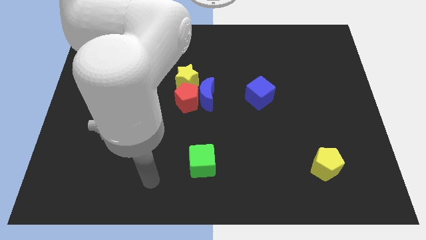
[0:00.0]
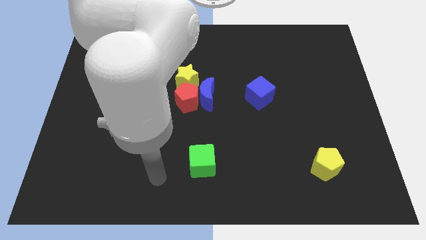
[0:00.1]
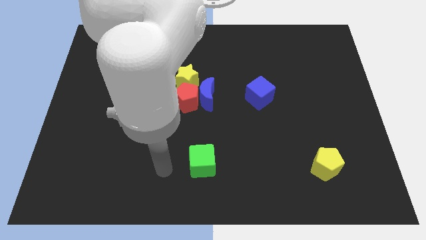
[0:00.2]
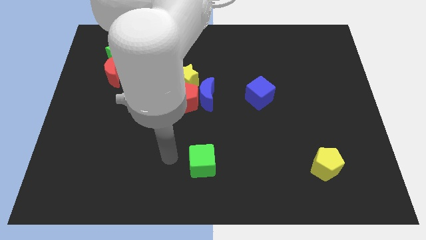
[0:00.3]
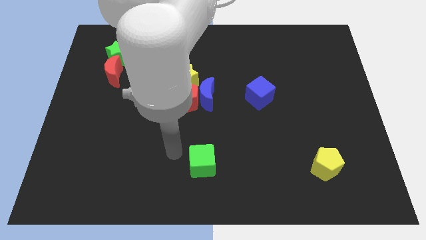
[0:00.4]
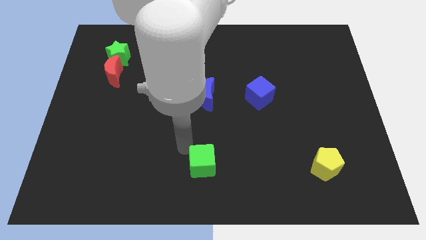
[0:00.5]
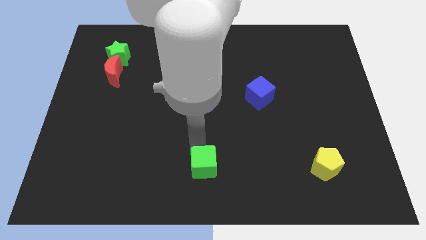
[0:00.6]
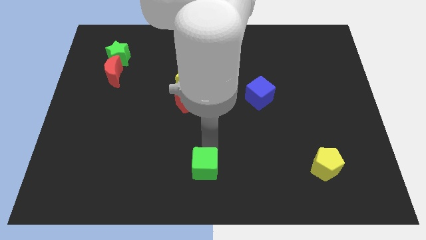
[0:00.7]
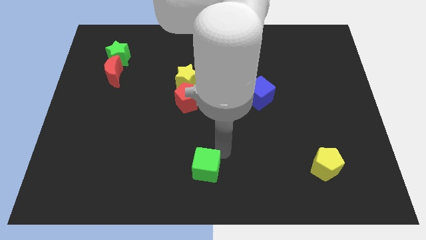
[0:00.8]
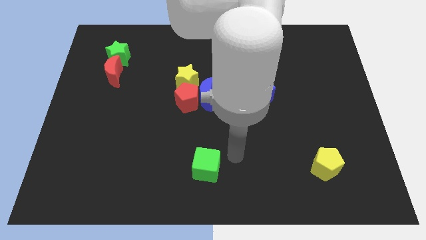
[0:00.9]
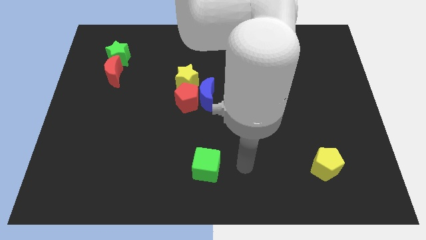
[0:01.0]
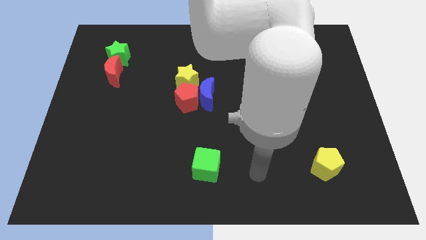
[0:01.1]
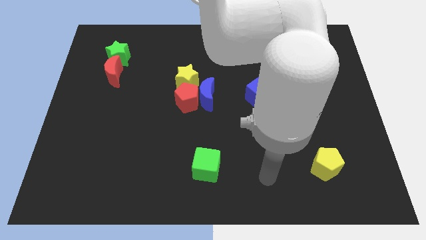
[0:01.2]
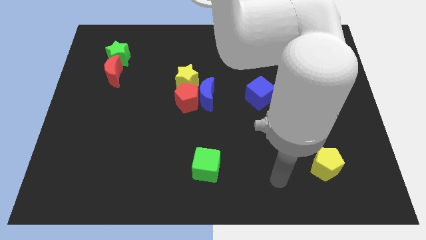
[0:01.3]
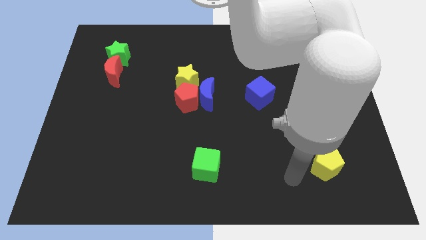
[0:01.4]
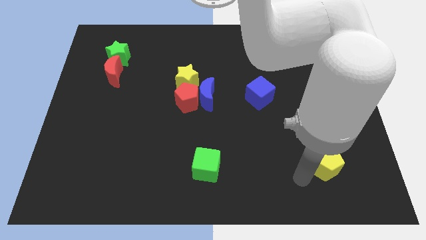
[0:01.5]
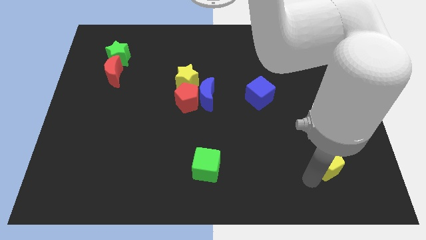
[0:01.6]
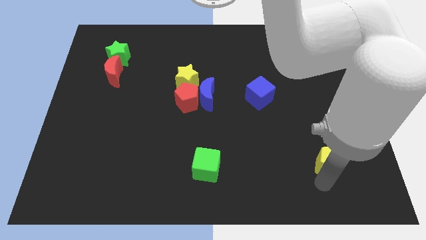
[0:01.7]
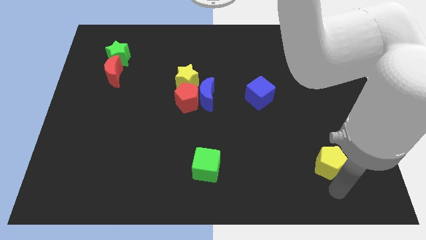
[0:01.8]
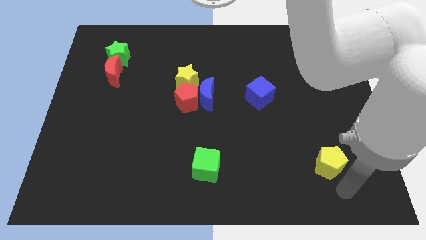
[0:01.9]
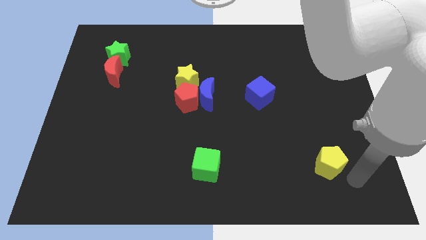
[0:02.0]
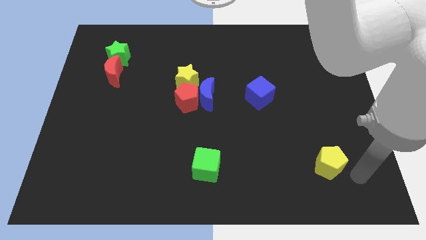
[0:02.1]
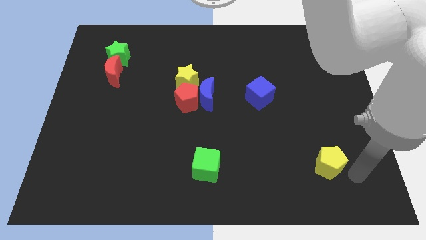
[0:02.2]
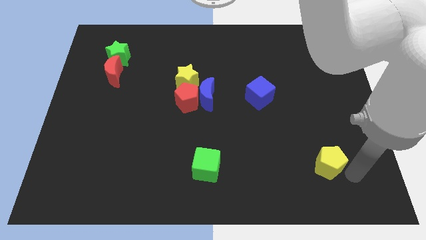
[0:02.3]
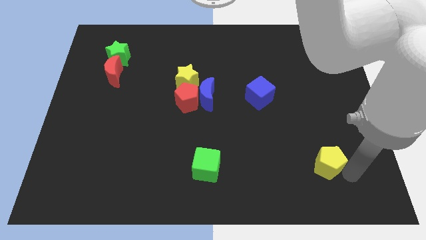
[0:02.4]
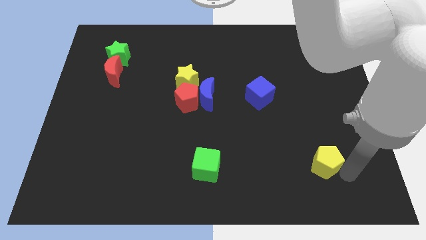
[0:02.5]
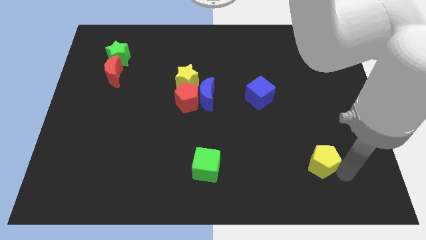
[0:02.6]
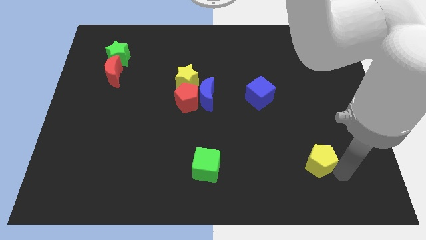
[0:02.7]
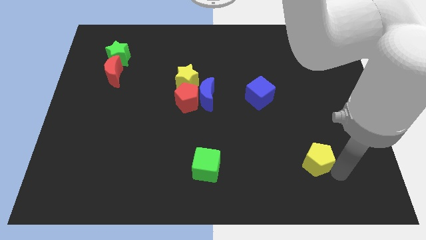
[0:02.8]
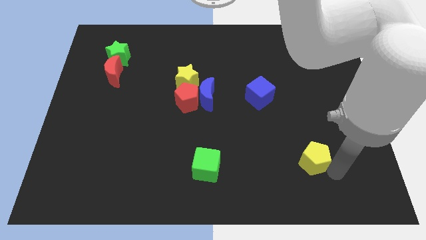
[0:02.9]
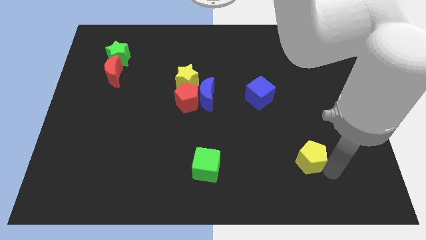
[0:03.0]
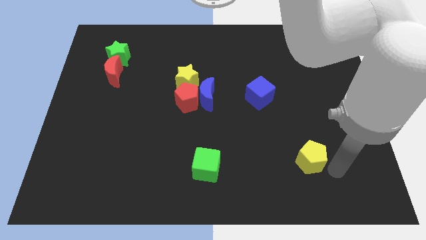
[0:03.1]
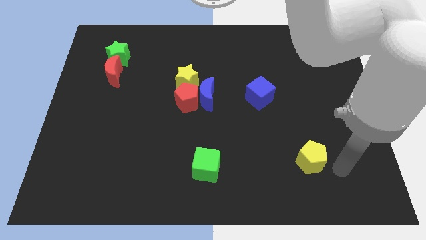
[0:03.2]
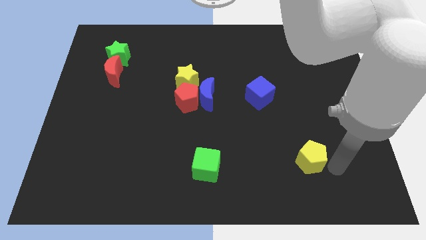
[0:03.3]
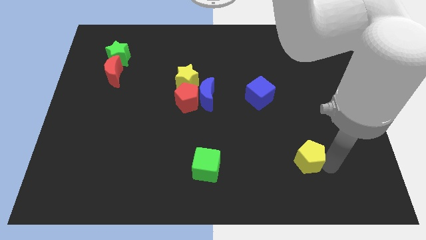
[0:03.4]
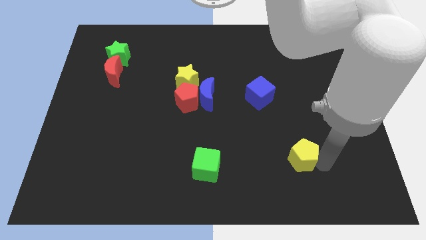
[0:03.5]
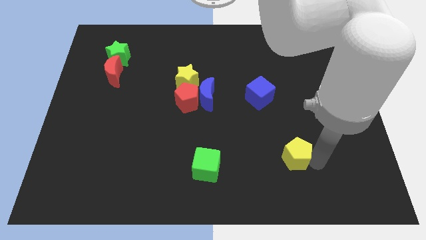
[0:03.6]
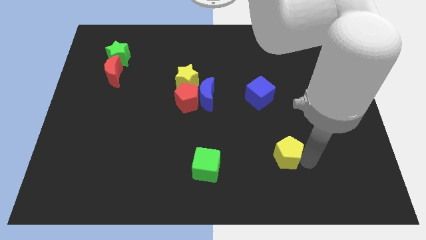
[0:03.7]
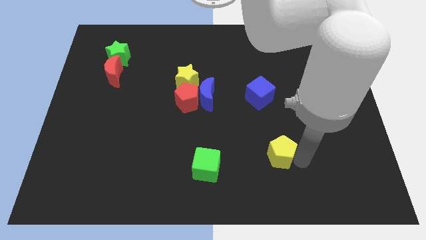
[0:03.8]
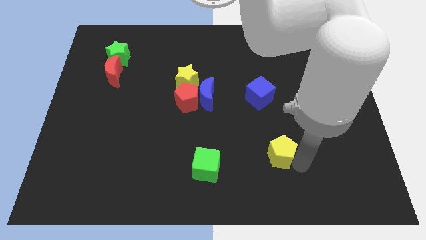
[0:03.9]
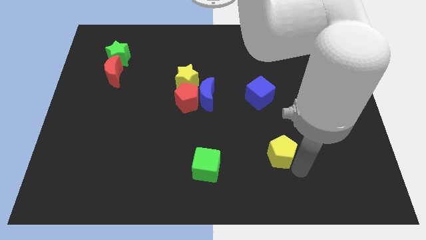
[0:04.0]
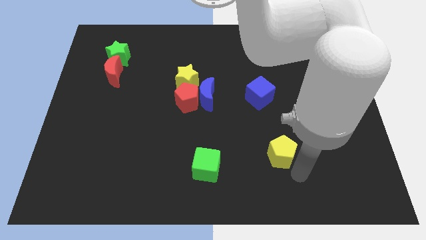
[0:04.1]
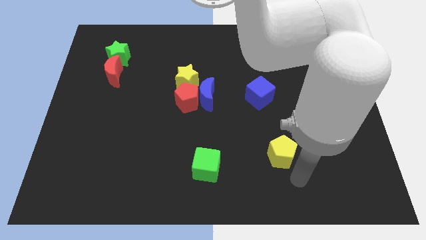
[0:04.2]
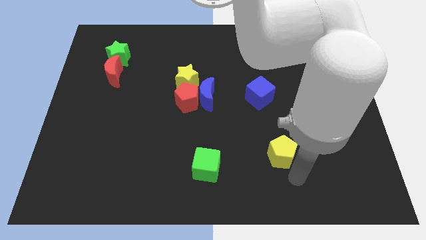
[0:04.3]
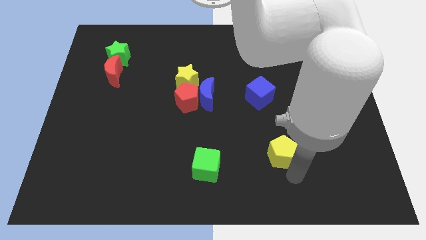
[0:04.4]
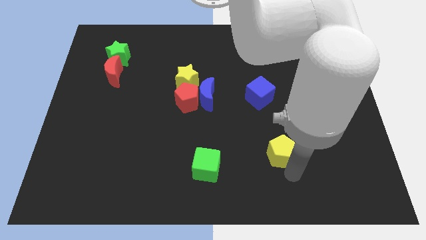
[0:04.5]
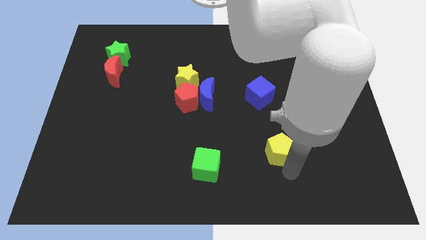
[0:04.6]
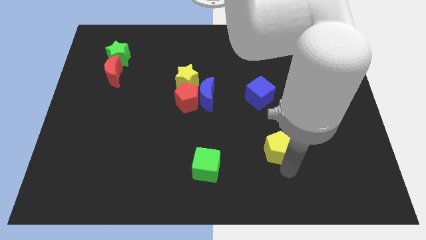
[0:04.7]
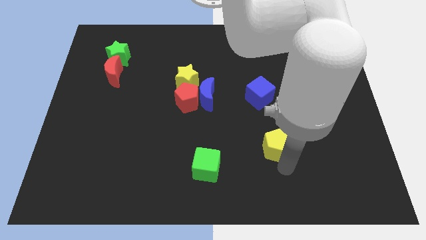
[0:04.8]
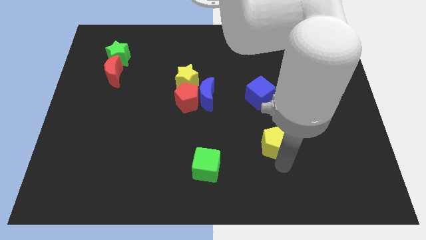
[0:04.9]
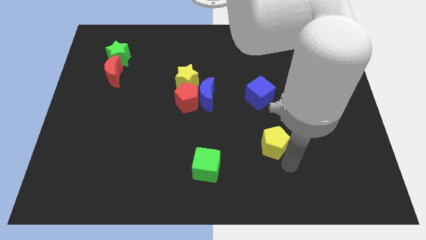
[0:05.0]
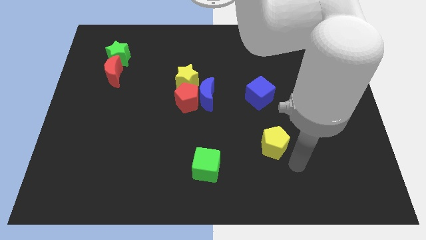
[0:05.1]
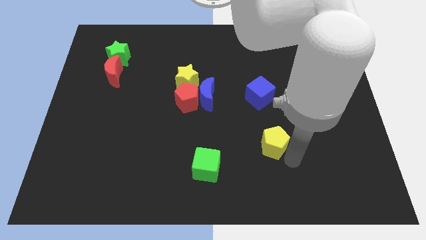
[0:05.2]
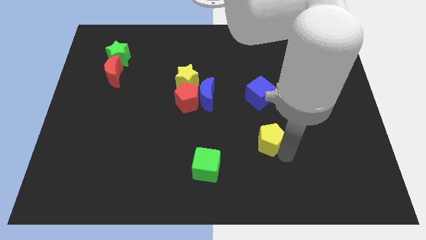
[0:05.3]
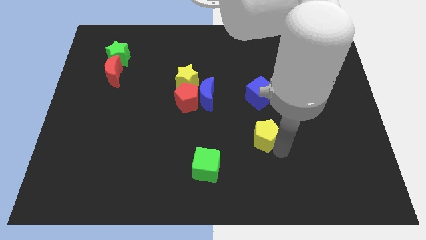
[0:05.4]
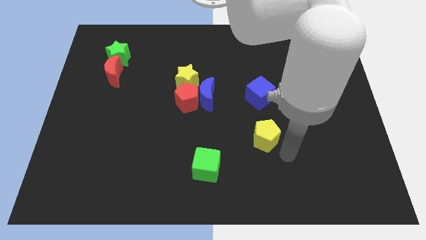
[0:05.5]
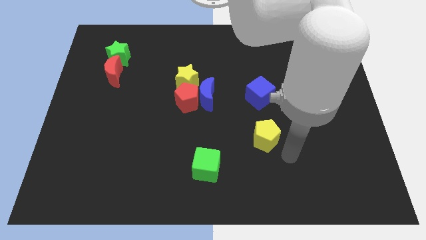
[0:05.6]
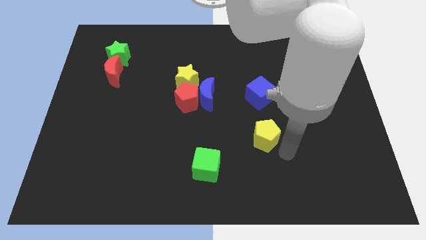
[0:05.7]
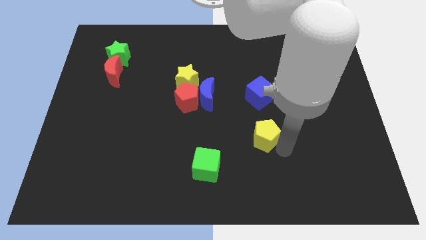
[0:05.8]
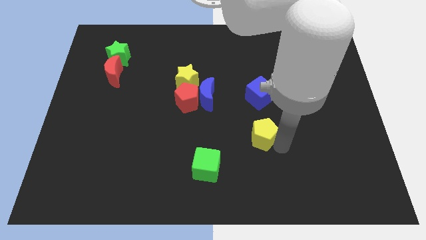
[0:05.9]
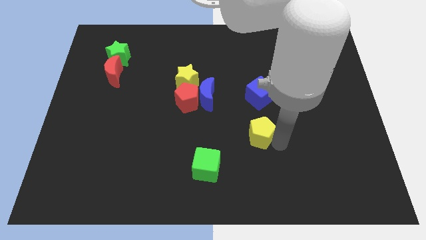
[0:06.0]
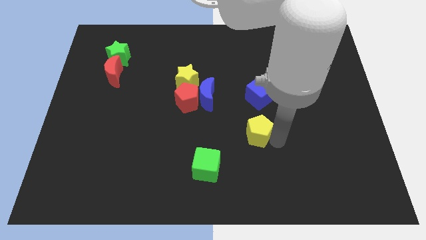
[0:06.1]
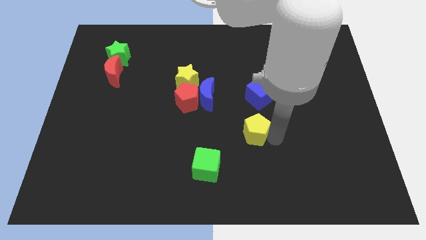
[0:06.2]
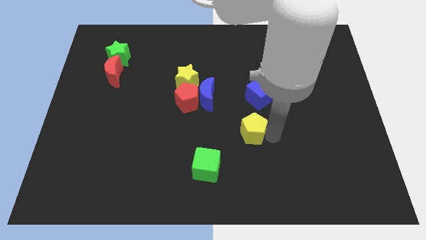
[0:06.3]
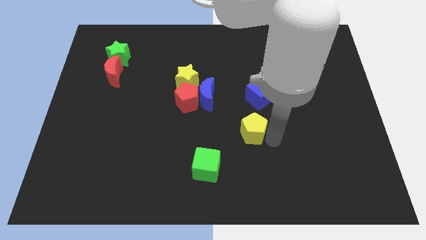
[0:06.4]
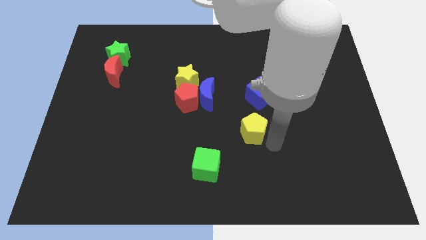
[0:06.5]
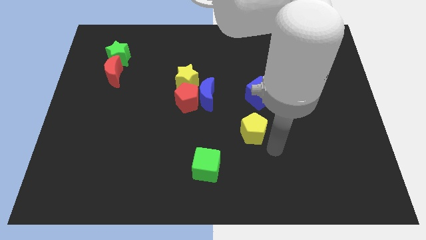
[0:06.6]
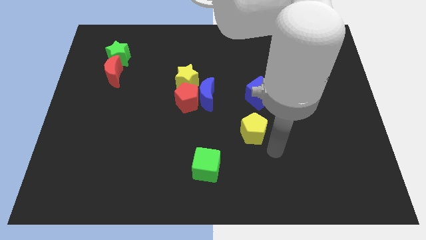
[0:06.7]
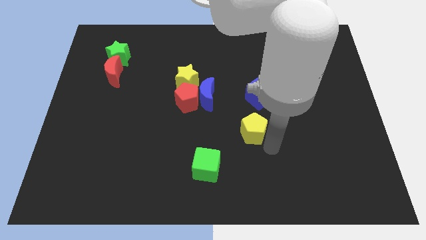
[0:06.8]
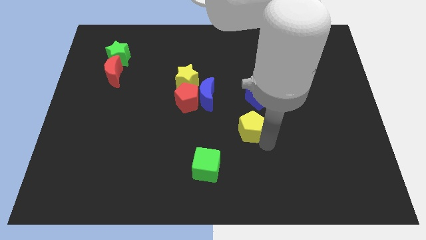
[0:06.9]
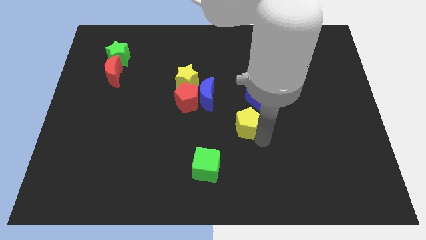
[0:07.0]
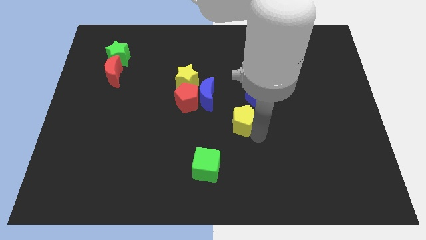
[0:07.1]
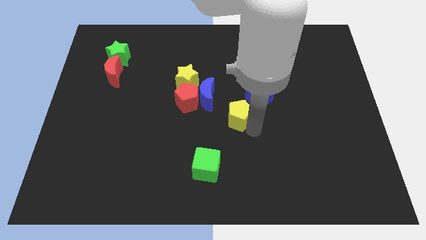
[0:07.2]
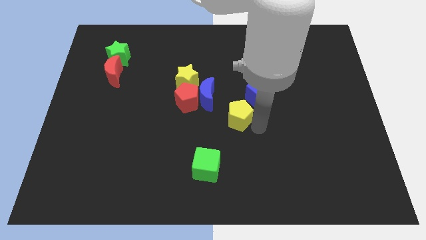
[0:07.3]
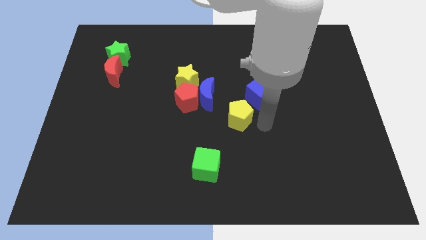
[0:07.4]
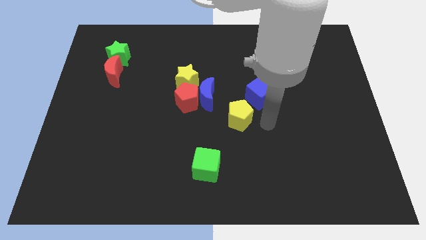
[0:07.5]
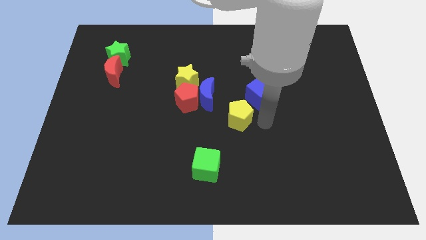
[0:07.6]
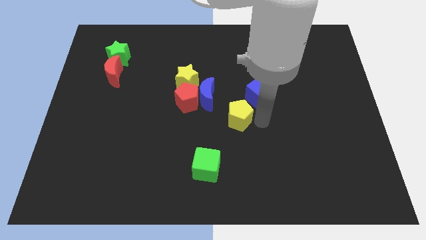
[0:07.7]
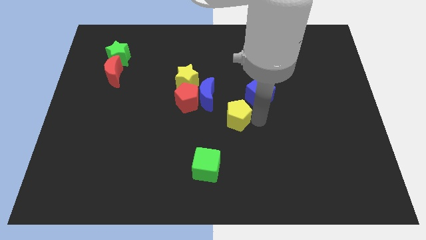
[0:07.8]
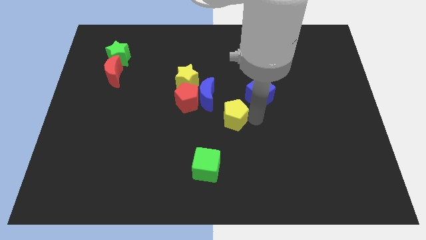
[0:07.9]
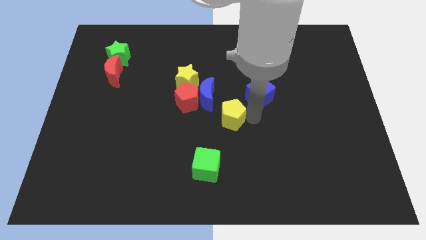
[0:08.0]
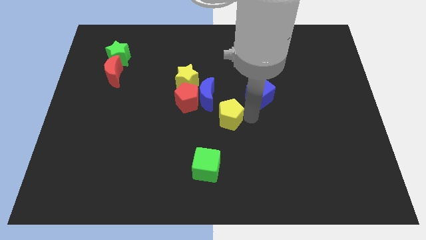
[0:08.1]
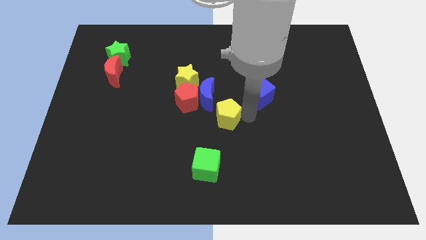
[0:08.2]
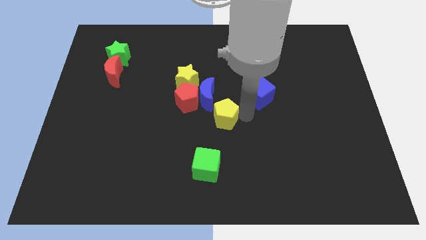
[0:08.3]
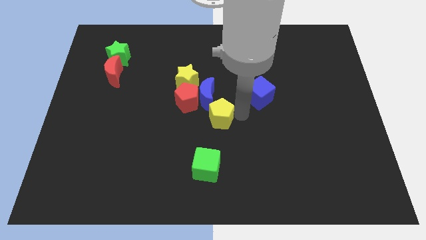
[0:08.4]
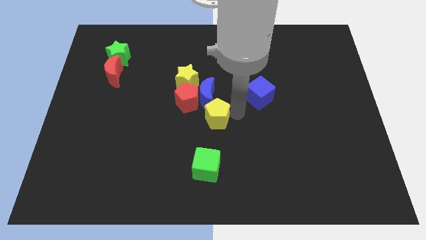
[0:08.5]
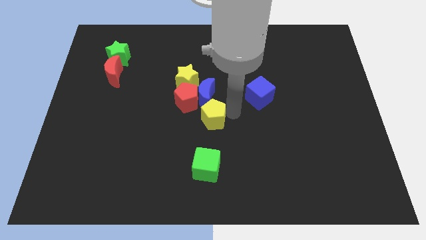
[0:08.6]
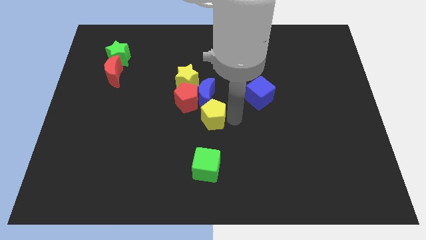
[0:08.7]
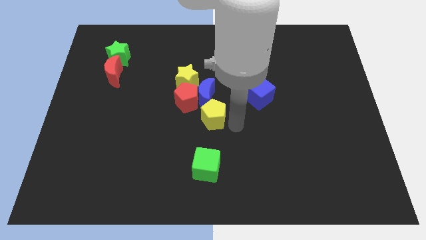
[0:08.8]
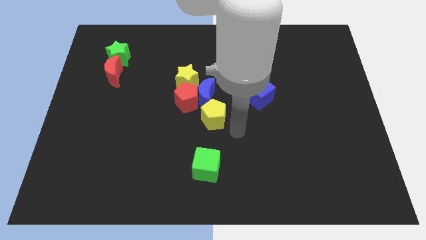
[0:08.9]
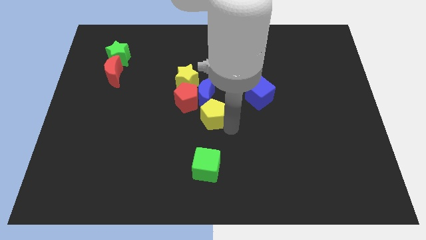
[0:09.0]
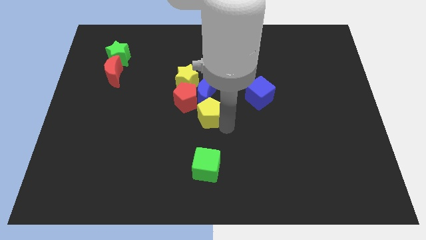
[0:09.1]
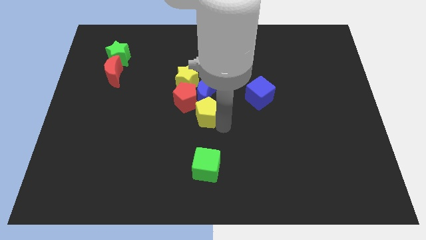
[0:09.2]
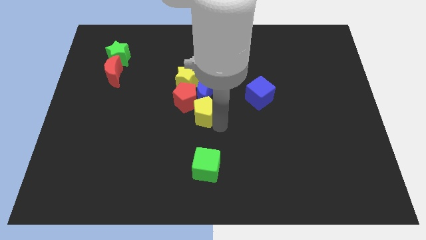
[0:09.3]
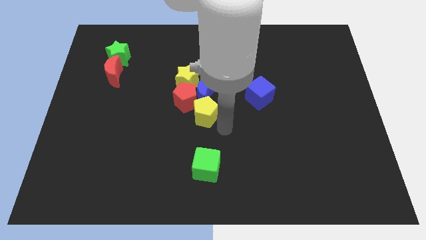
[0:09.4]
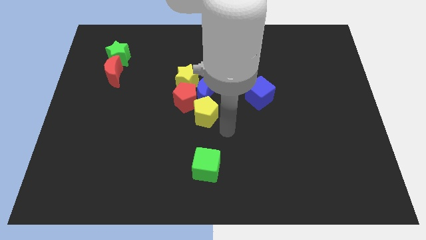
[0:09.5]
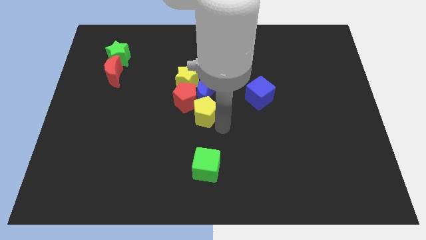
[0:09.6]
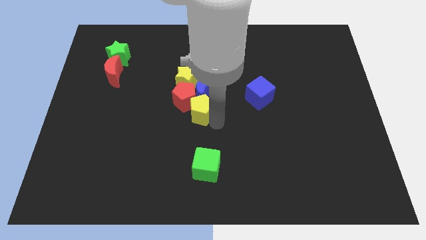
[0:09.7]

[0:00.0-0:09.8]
put the yellow pentagon next to the red pentagon
